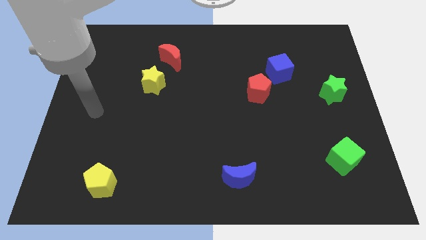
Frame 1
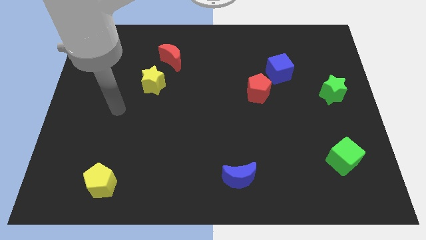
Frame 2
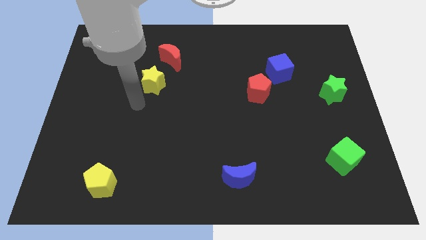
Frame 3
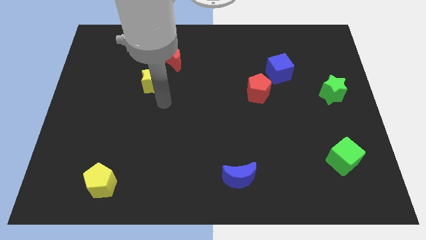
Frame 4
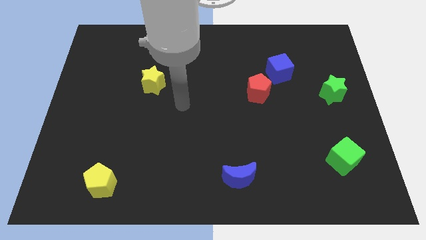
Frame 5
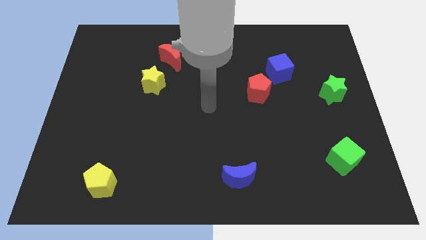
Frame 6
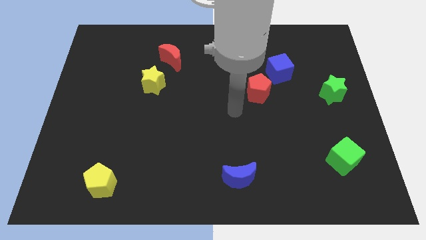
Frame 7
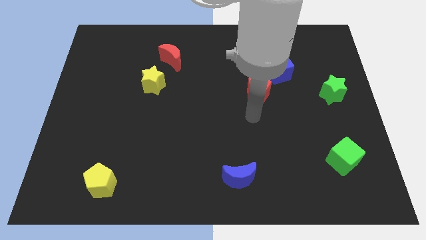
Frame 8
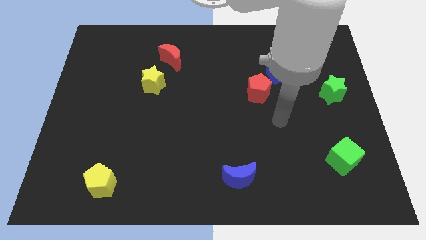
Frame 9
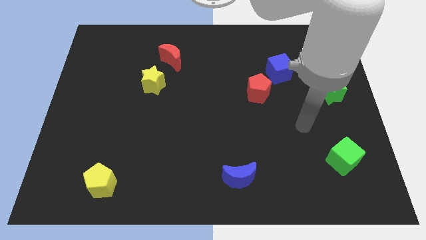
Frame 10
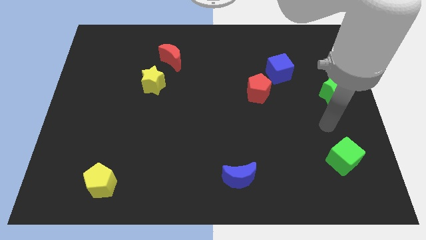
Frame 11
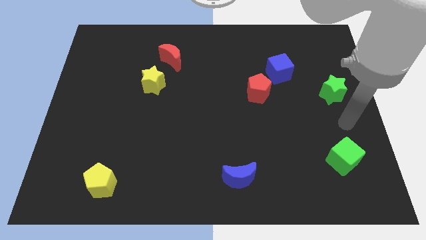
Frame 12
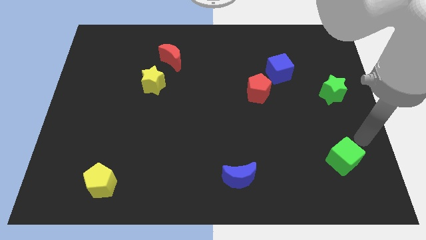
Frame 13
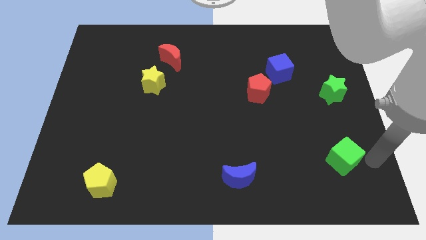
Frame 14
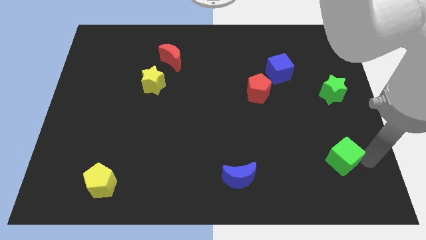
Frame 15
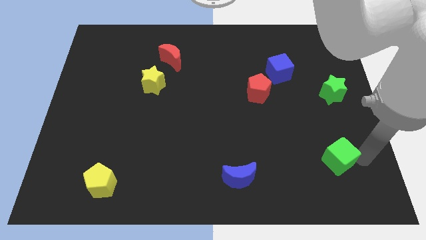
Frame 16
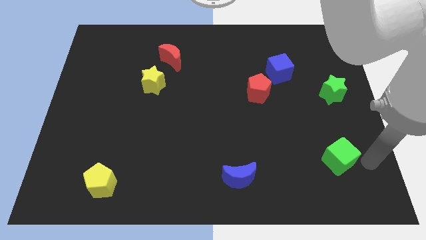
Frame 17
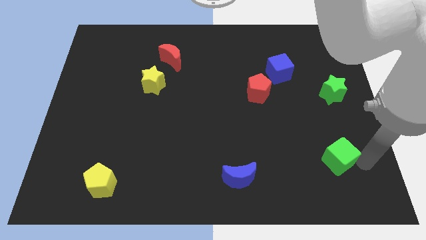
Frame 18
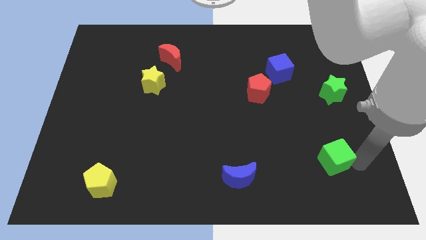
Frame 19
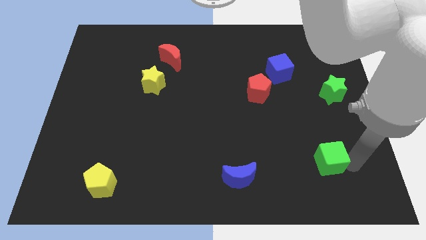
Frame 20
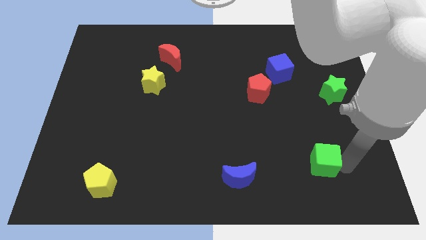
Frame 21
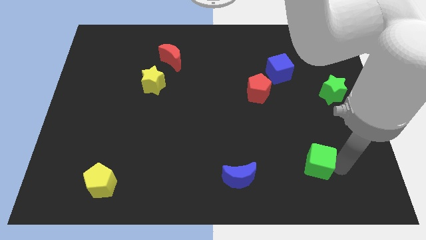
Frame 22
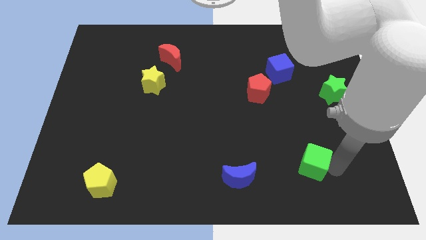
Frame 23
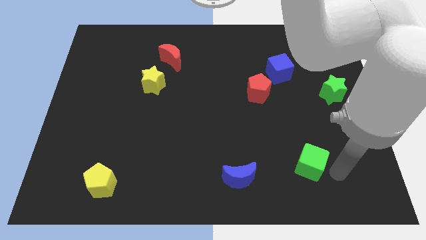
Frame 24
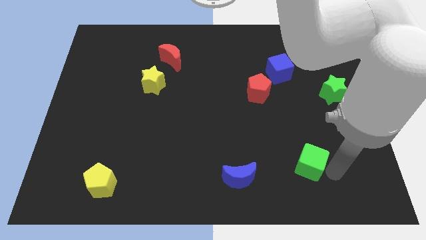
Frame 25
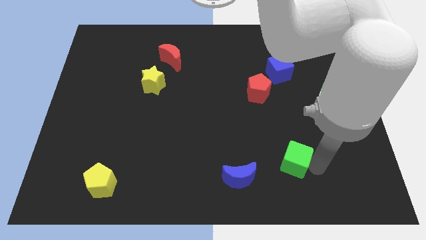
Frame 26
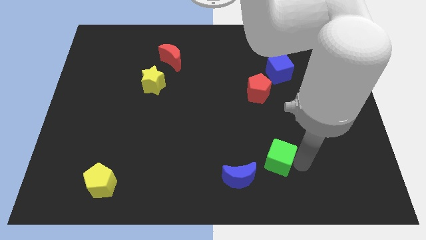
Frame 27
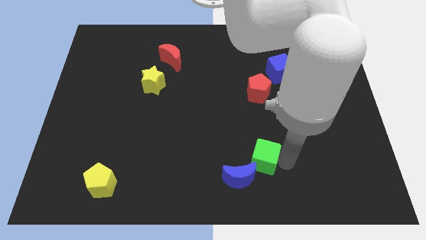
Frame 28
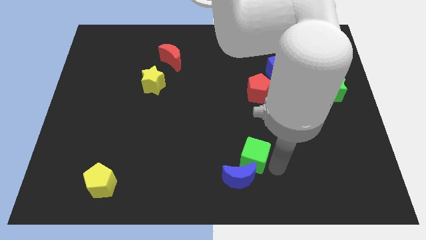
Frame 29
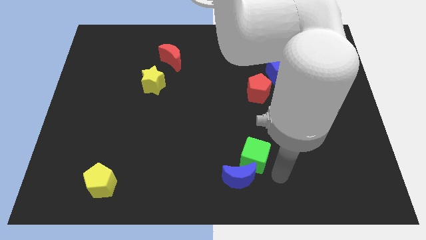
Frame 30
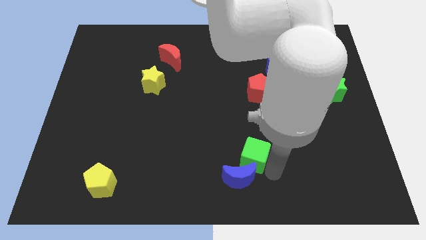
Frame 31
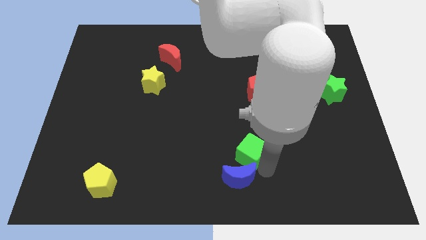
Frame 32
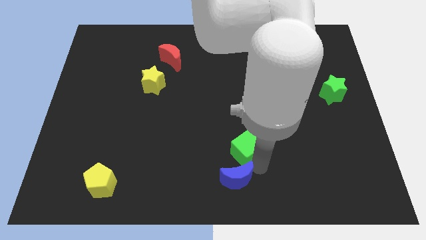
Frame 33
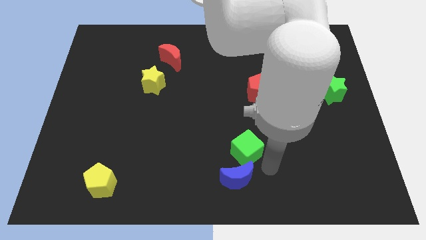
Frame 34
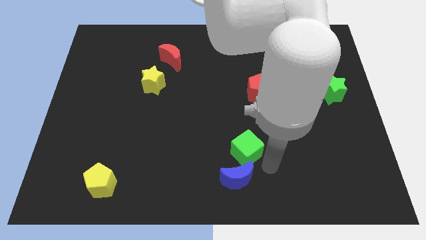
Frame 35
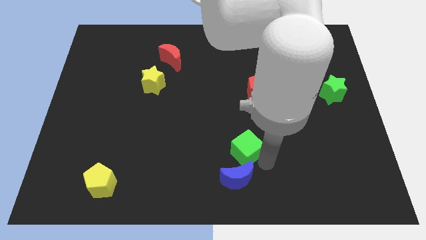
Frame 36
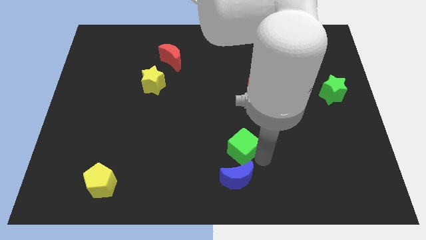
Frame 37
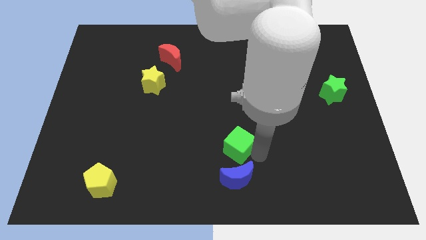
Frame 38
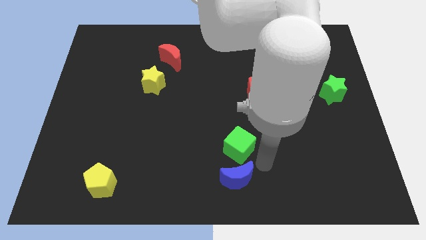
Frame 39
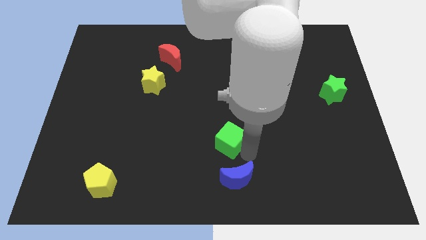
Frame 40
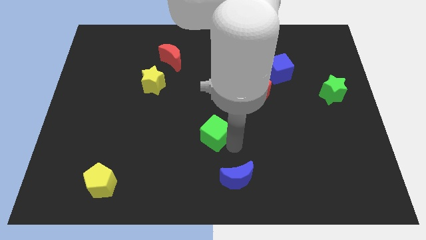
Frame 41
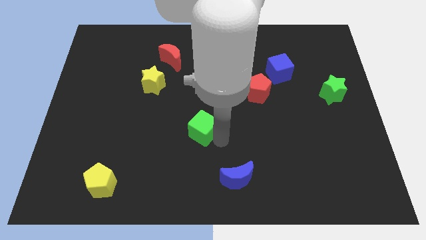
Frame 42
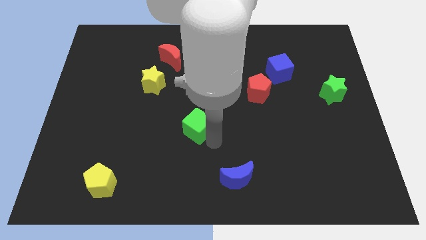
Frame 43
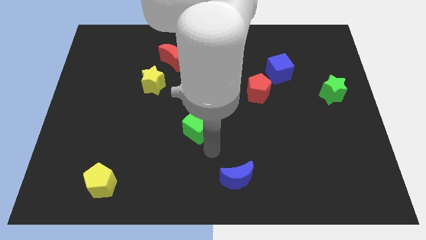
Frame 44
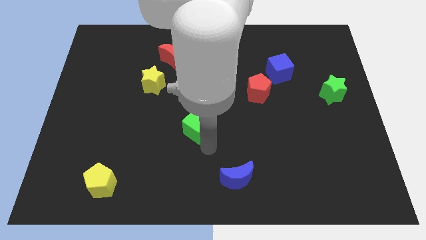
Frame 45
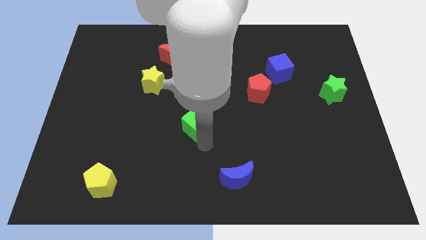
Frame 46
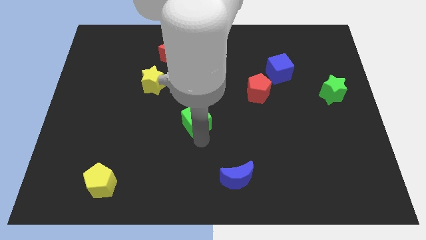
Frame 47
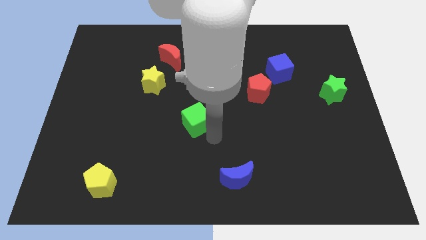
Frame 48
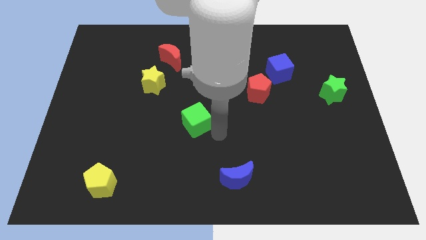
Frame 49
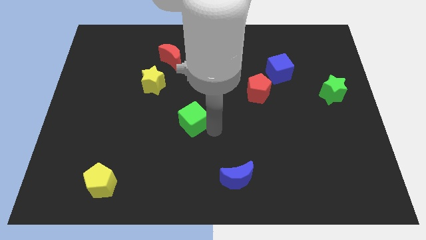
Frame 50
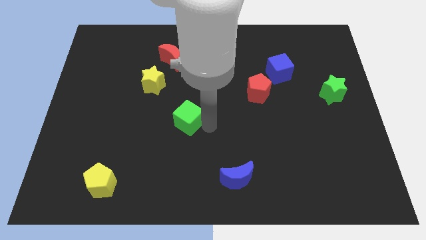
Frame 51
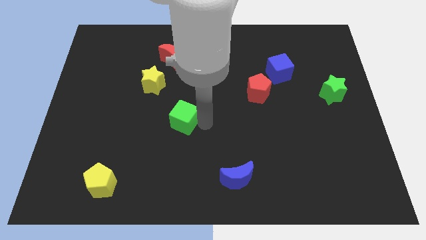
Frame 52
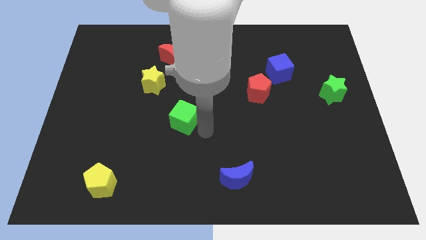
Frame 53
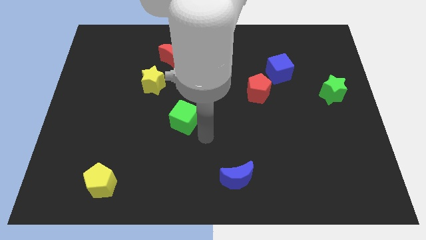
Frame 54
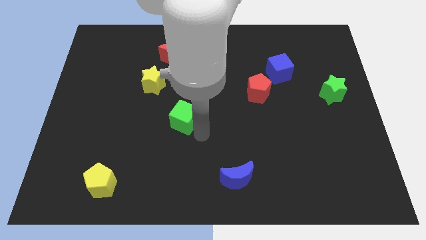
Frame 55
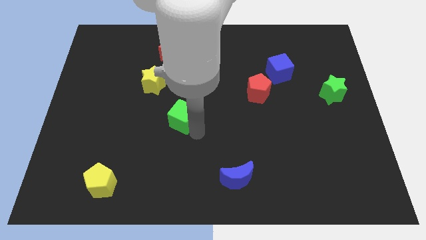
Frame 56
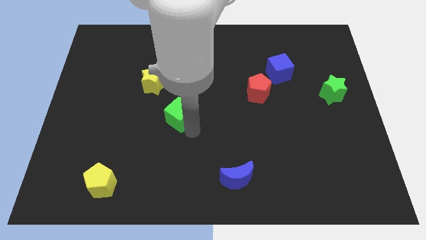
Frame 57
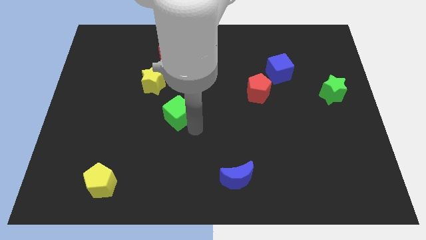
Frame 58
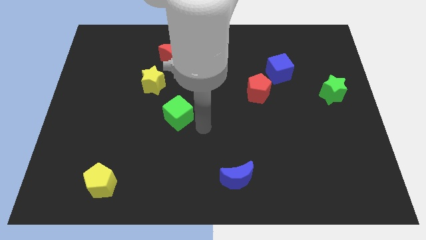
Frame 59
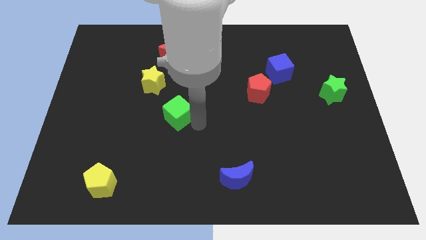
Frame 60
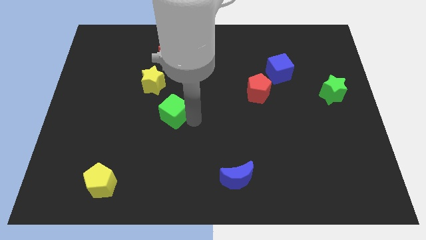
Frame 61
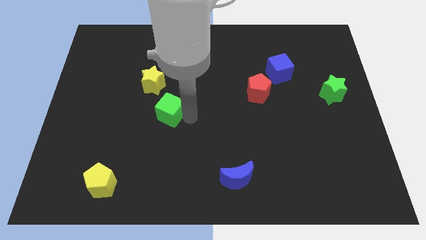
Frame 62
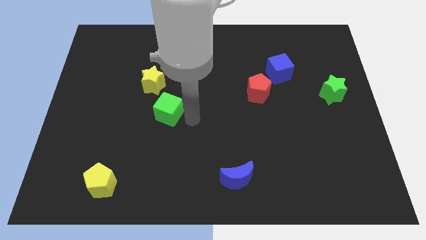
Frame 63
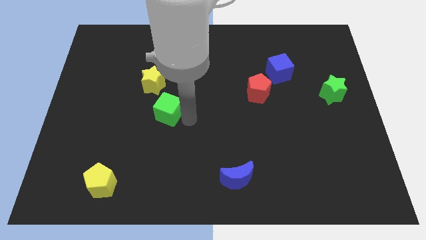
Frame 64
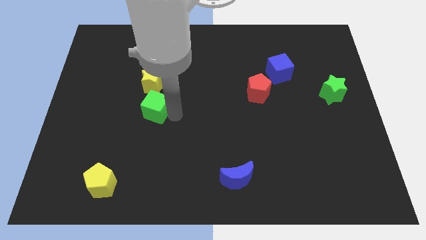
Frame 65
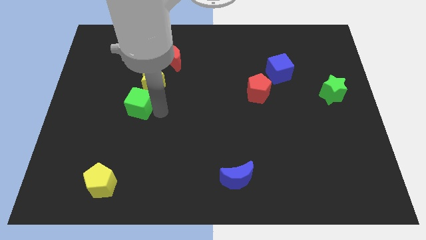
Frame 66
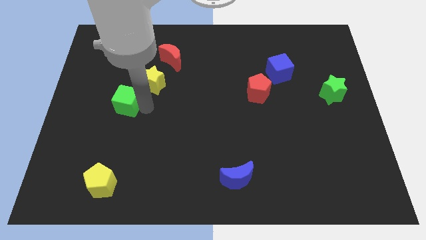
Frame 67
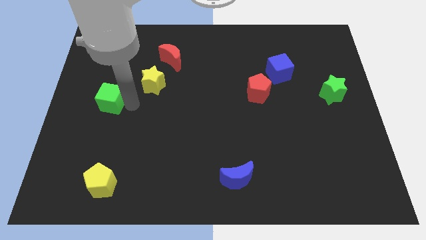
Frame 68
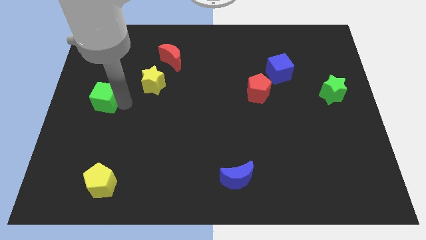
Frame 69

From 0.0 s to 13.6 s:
slide the green cube to the left side of the board
